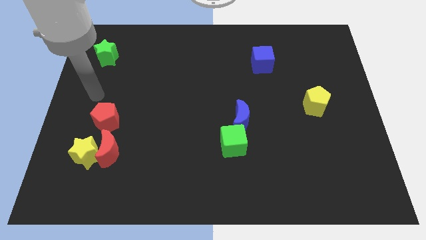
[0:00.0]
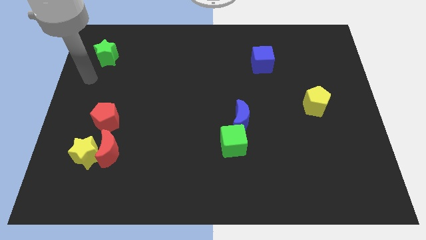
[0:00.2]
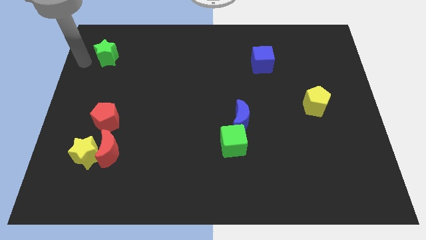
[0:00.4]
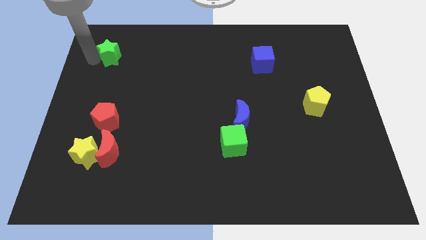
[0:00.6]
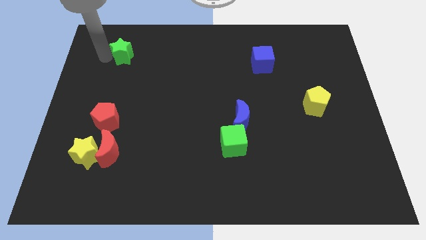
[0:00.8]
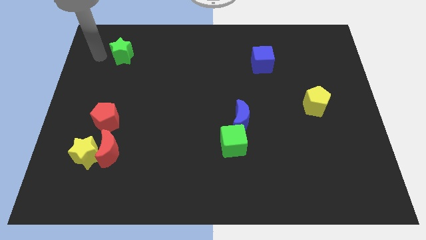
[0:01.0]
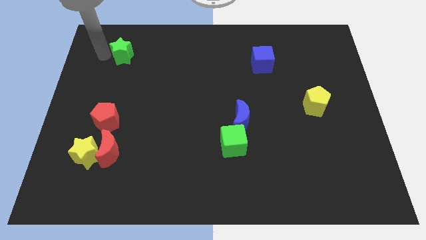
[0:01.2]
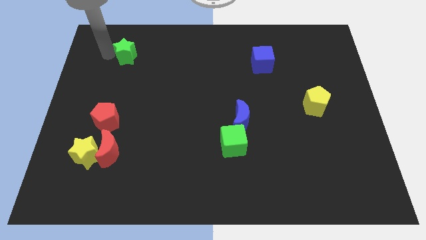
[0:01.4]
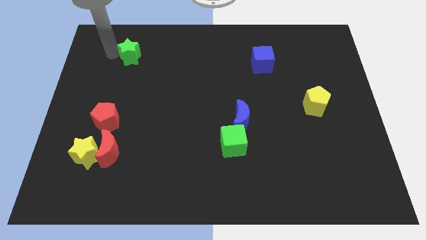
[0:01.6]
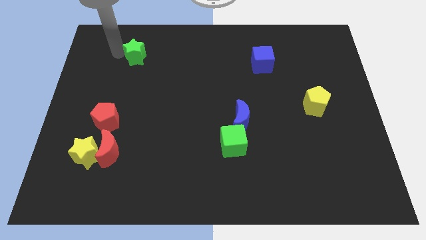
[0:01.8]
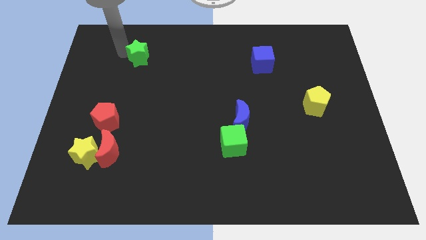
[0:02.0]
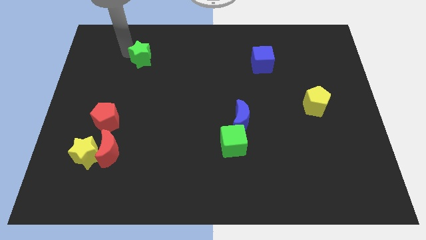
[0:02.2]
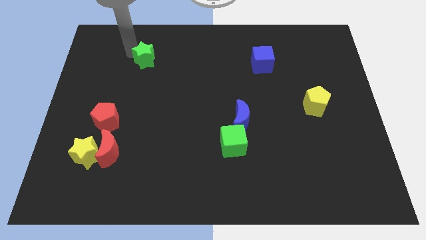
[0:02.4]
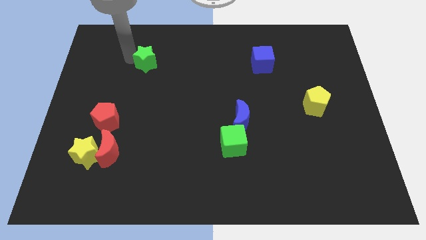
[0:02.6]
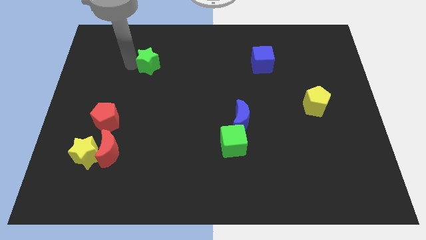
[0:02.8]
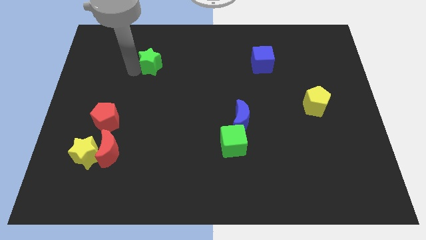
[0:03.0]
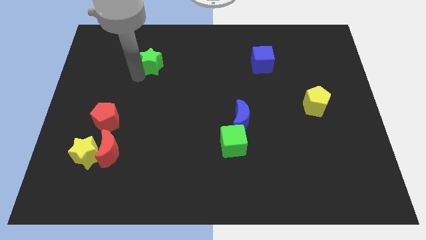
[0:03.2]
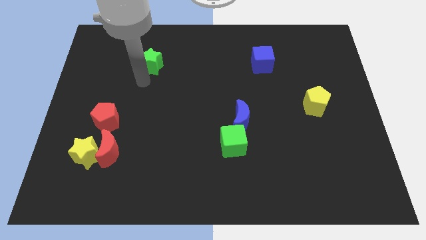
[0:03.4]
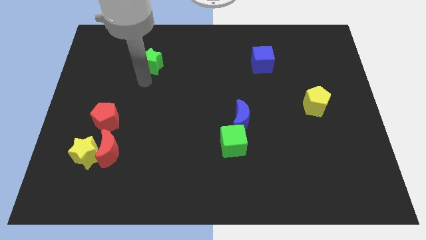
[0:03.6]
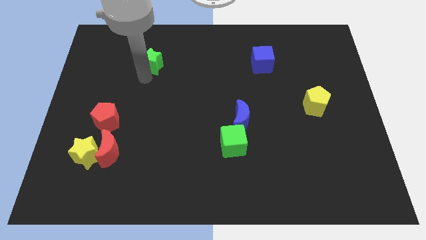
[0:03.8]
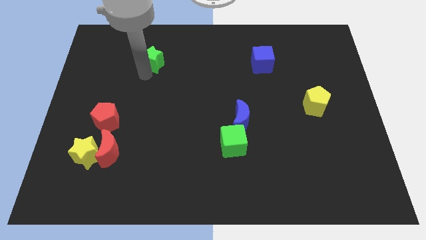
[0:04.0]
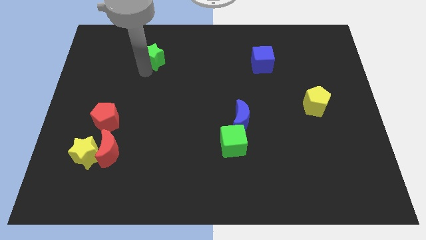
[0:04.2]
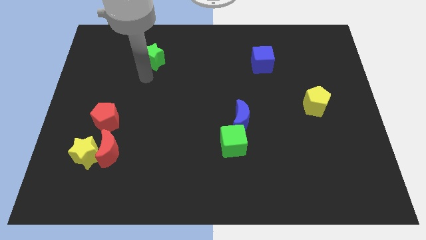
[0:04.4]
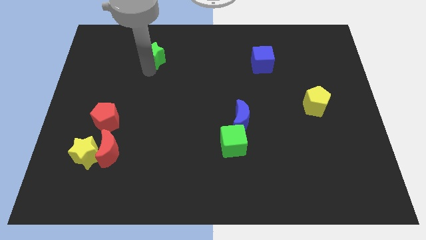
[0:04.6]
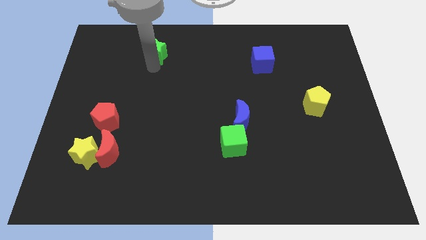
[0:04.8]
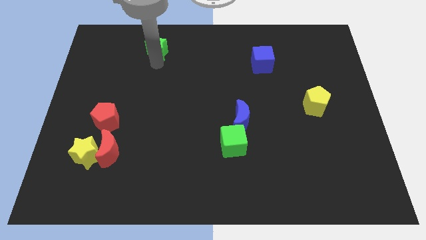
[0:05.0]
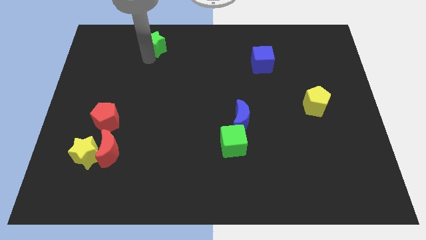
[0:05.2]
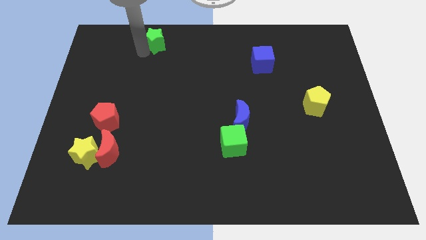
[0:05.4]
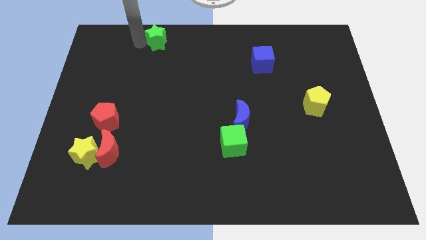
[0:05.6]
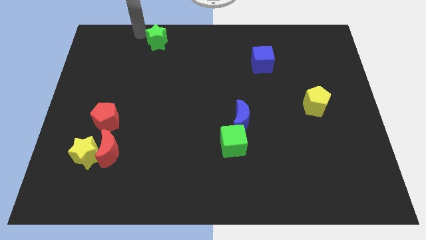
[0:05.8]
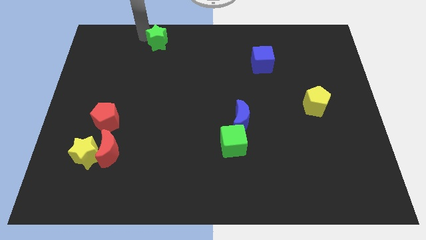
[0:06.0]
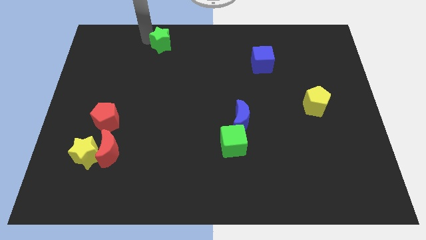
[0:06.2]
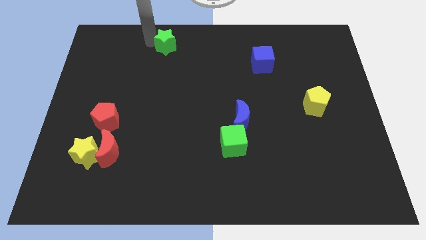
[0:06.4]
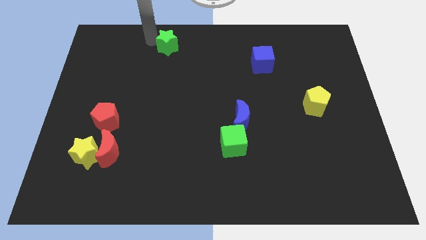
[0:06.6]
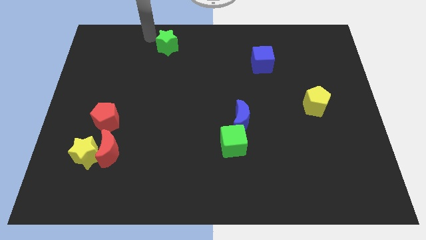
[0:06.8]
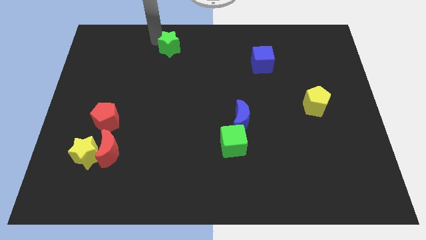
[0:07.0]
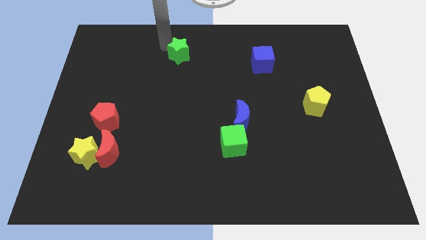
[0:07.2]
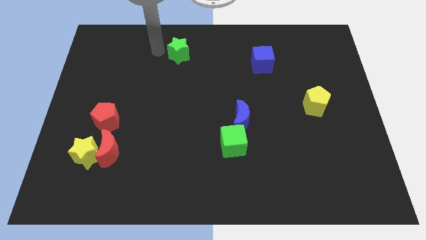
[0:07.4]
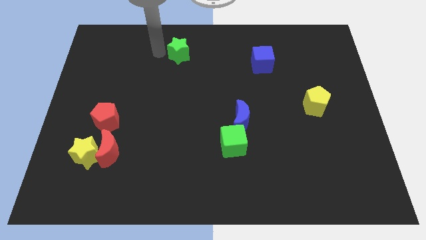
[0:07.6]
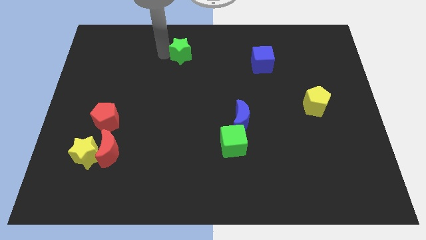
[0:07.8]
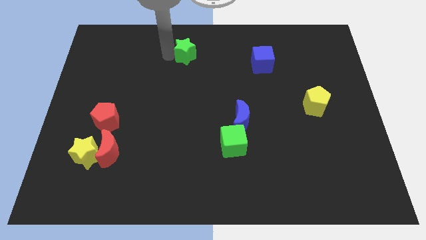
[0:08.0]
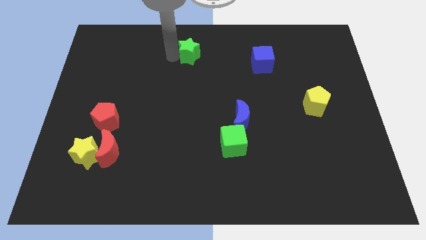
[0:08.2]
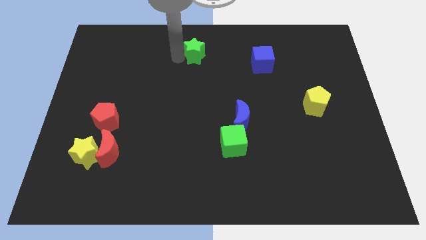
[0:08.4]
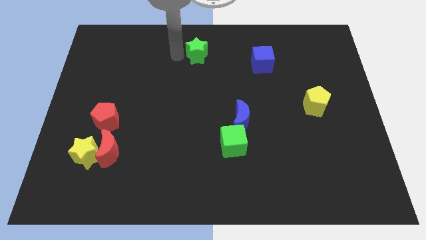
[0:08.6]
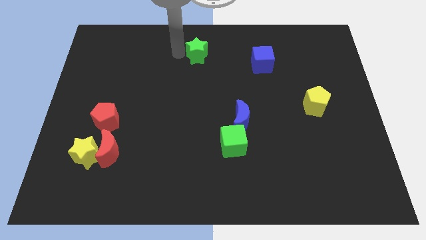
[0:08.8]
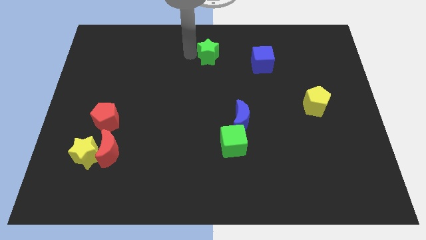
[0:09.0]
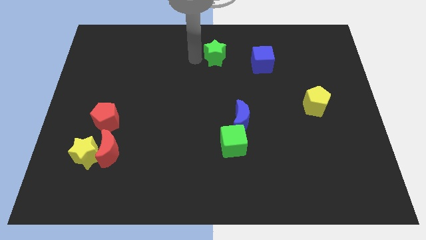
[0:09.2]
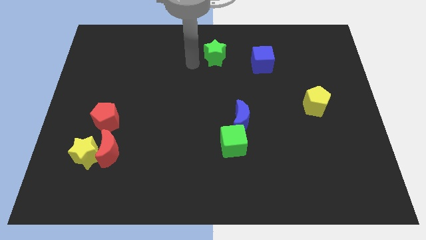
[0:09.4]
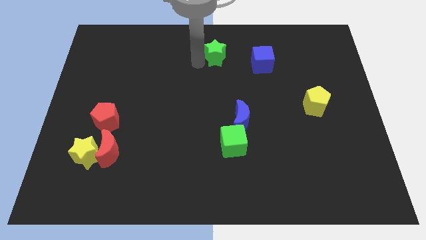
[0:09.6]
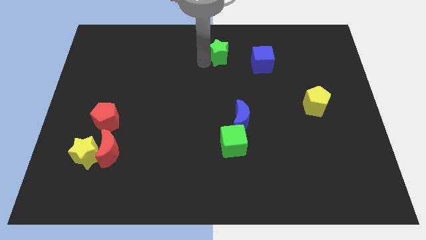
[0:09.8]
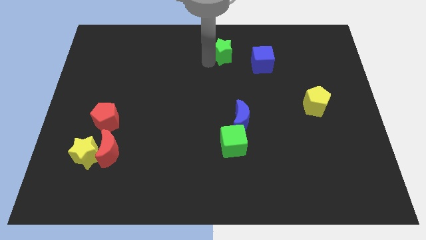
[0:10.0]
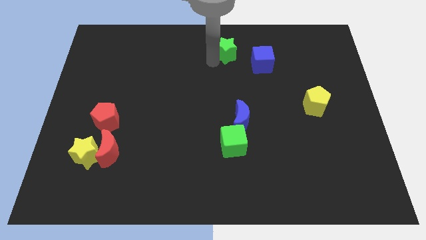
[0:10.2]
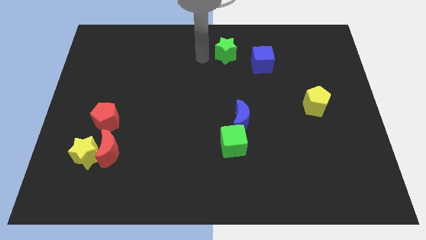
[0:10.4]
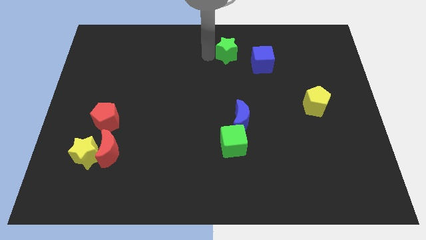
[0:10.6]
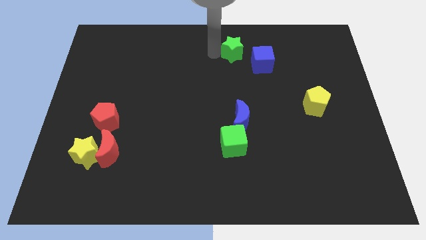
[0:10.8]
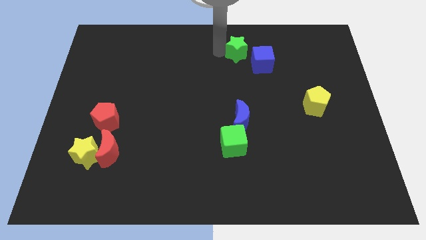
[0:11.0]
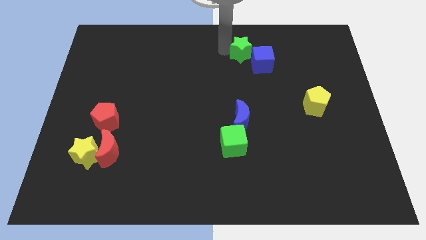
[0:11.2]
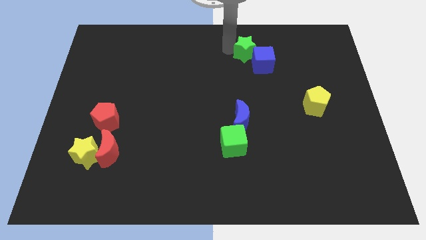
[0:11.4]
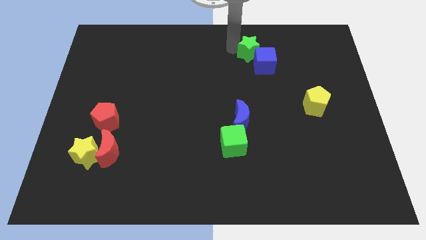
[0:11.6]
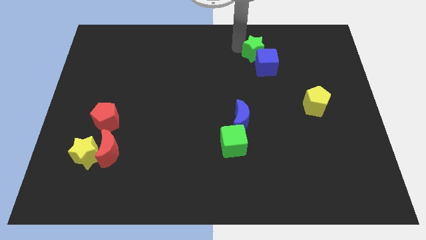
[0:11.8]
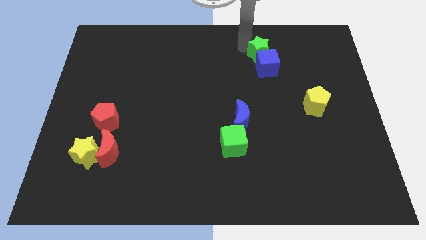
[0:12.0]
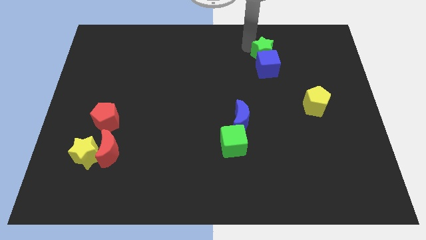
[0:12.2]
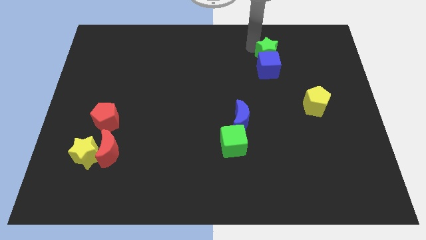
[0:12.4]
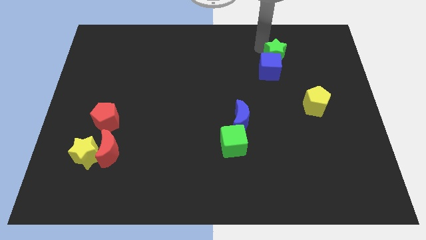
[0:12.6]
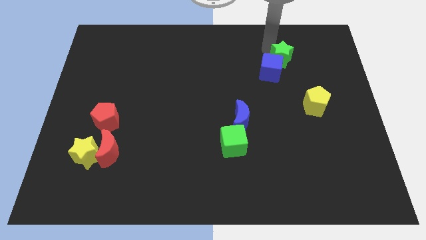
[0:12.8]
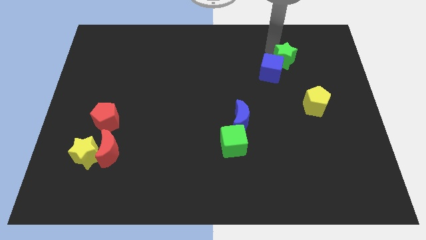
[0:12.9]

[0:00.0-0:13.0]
put the green star just right of the blue cube

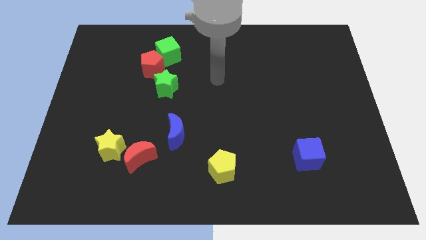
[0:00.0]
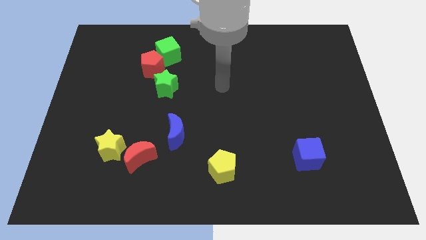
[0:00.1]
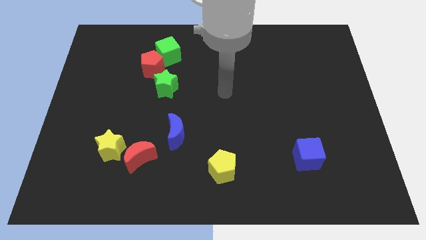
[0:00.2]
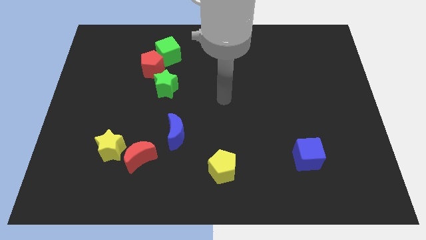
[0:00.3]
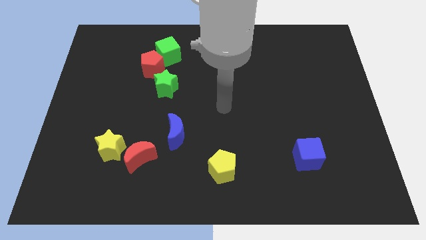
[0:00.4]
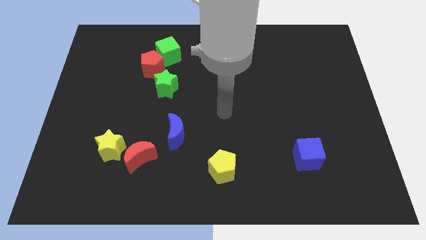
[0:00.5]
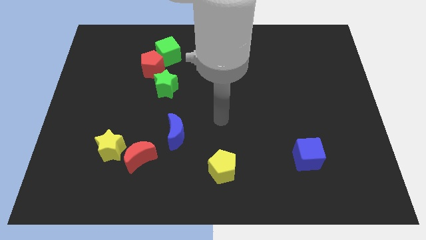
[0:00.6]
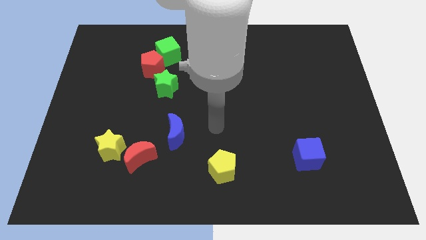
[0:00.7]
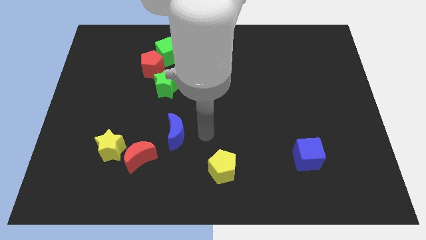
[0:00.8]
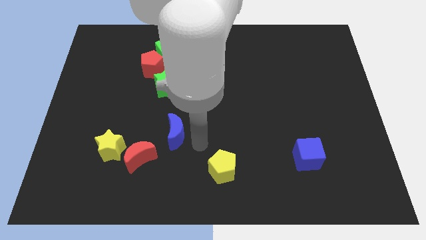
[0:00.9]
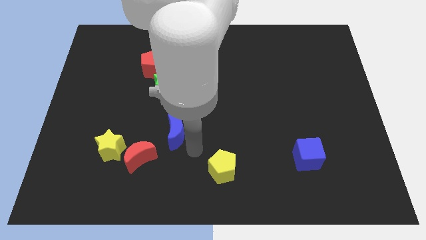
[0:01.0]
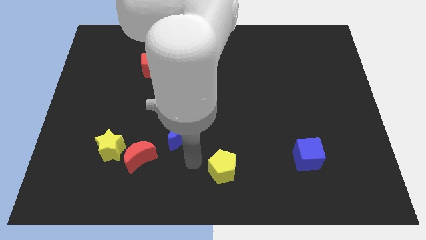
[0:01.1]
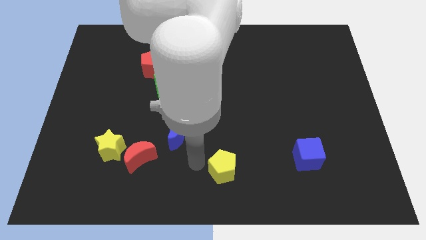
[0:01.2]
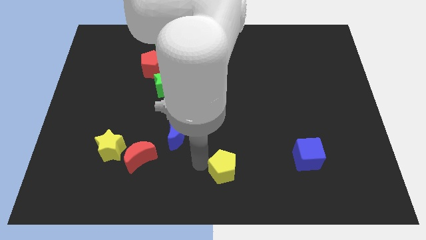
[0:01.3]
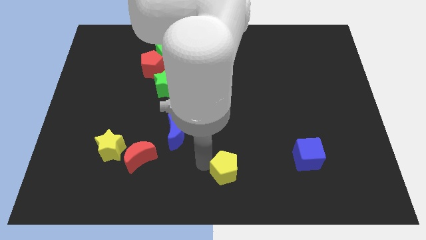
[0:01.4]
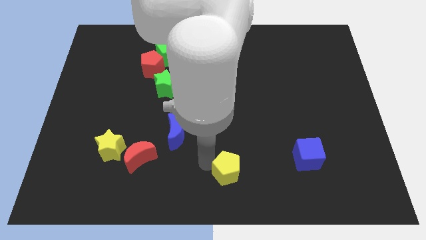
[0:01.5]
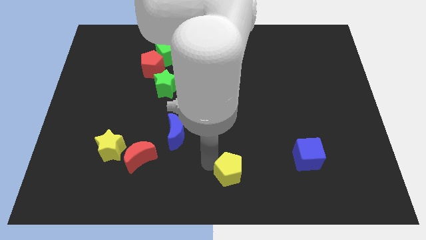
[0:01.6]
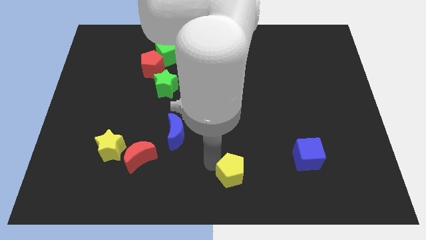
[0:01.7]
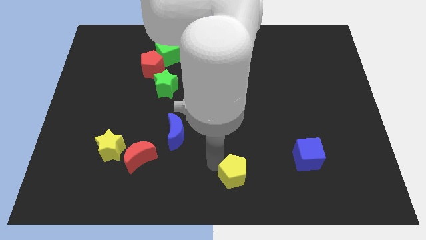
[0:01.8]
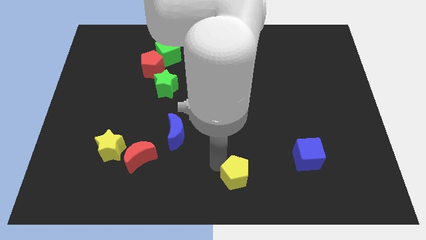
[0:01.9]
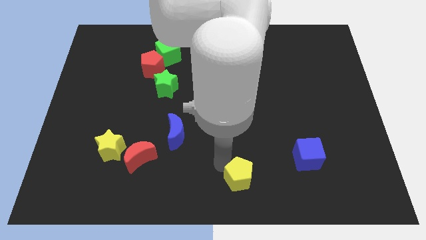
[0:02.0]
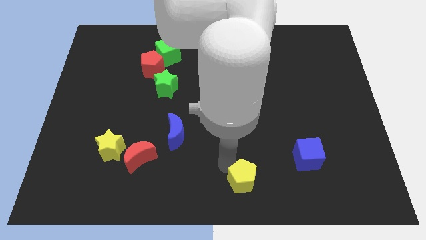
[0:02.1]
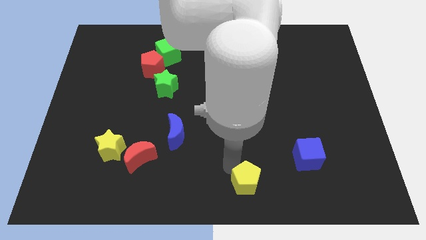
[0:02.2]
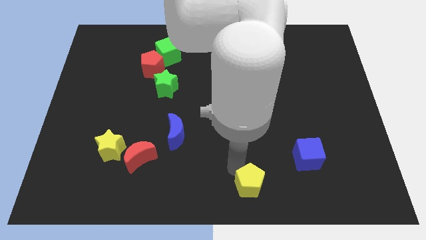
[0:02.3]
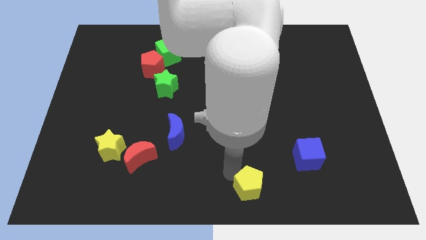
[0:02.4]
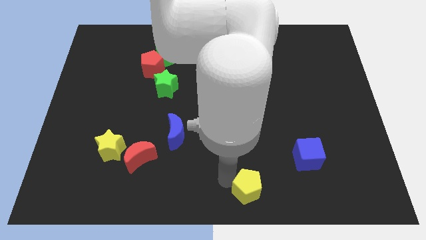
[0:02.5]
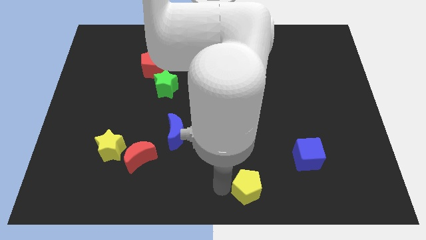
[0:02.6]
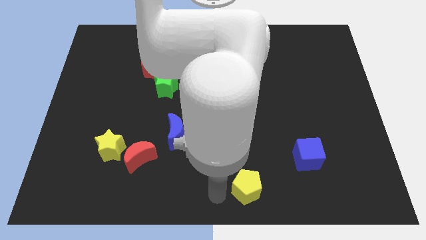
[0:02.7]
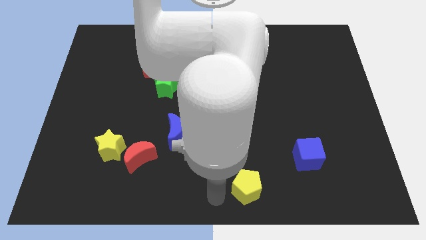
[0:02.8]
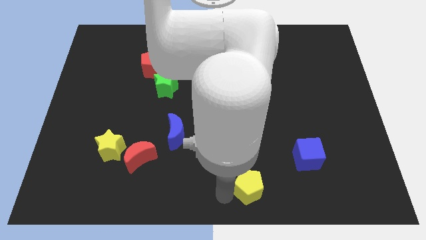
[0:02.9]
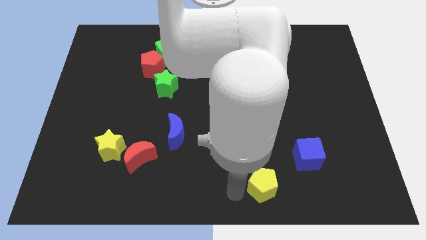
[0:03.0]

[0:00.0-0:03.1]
push the yellow pentagon to the bottom left side of the blue cube
